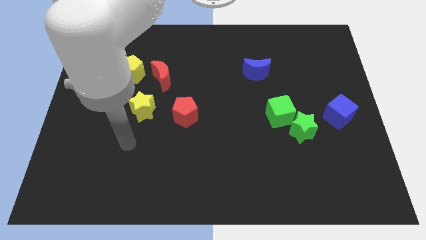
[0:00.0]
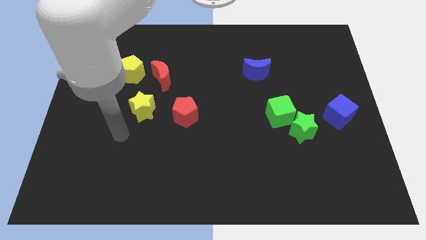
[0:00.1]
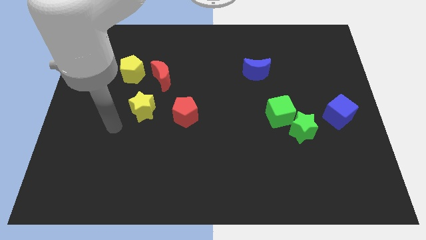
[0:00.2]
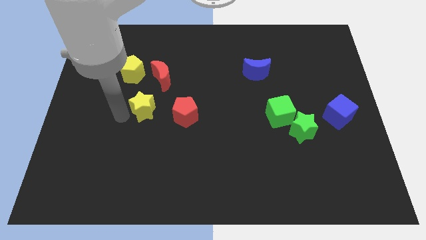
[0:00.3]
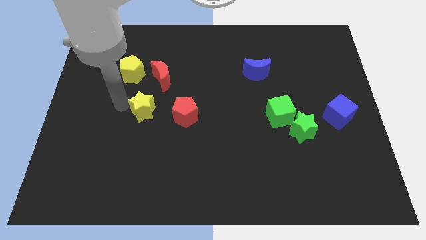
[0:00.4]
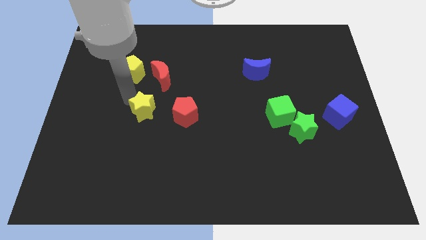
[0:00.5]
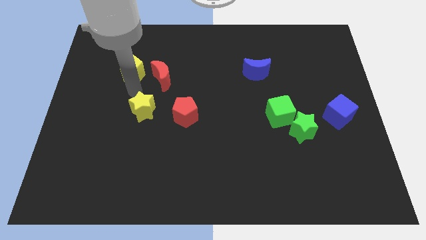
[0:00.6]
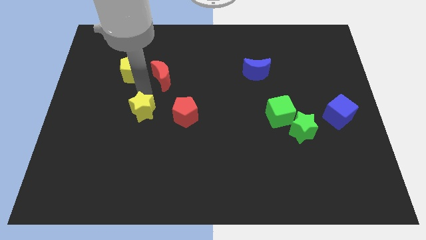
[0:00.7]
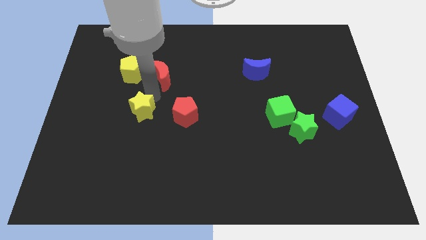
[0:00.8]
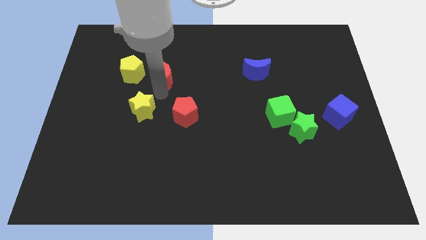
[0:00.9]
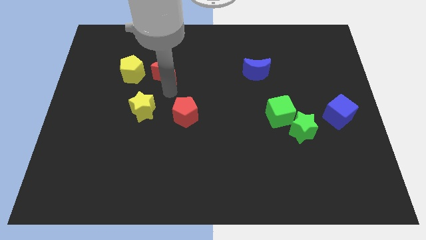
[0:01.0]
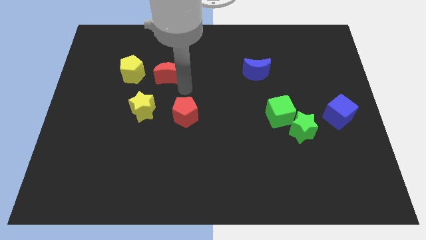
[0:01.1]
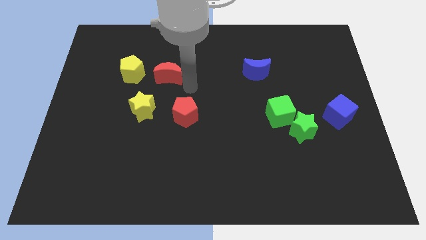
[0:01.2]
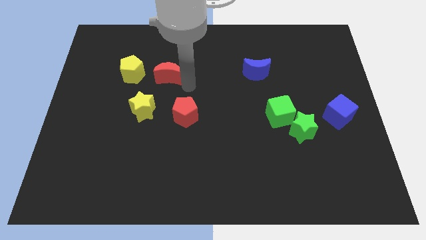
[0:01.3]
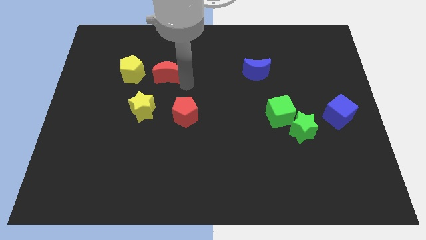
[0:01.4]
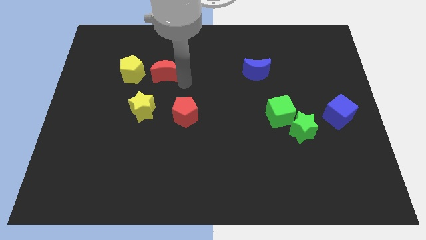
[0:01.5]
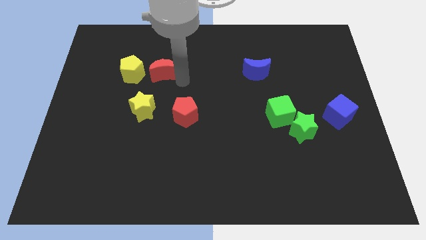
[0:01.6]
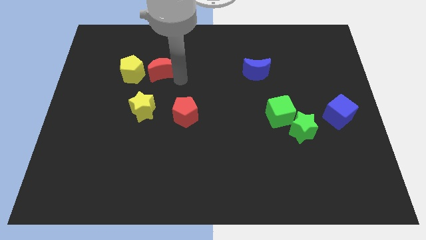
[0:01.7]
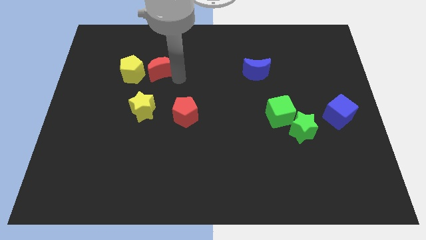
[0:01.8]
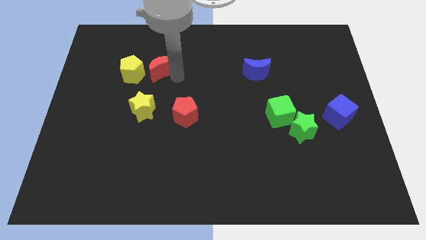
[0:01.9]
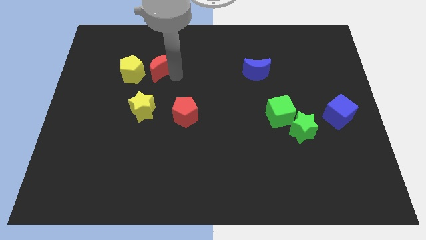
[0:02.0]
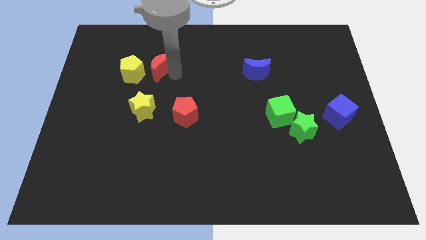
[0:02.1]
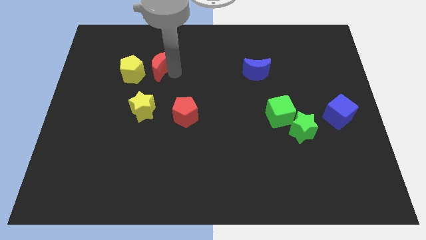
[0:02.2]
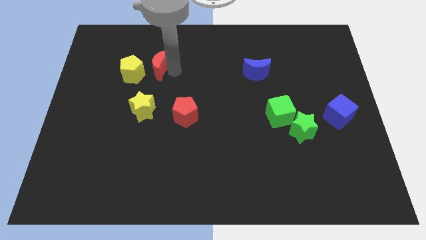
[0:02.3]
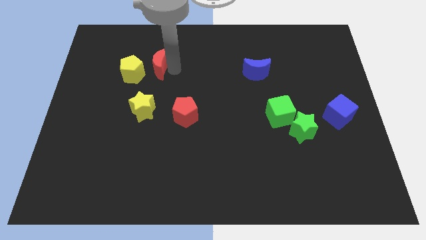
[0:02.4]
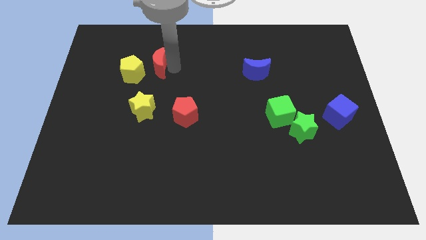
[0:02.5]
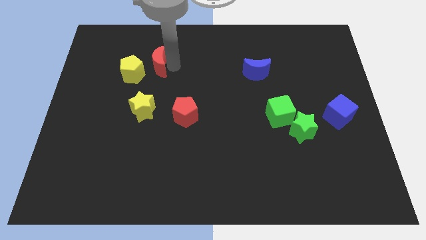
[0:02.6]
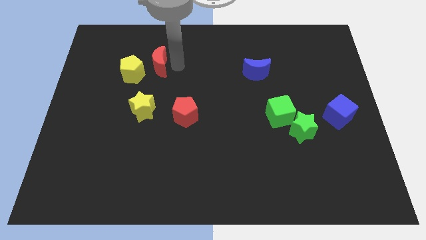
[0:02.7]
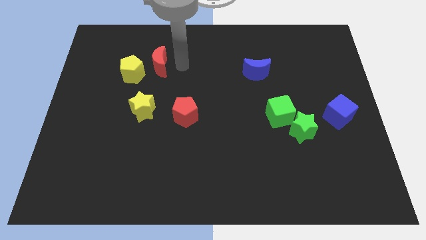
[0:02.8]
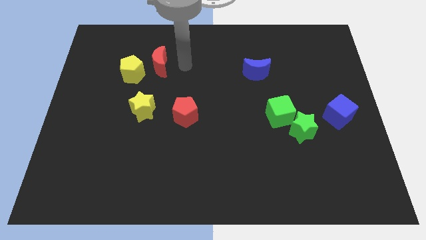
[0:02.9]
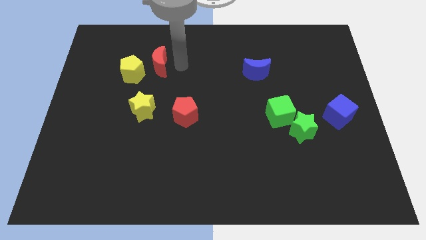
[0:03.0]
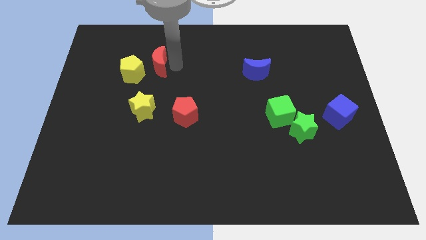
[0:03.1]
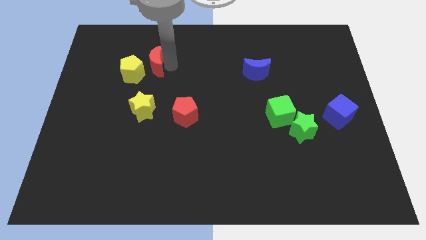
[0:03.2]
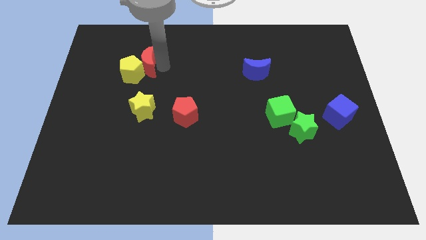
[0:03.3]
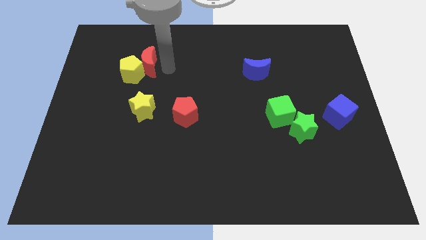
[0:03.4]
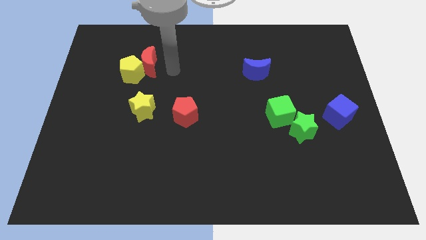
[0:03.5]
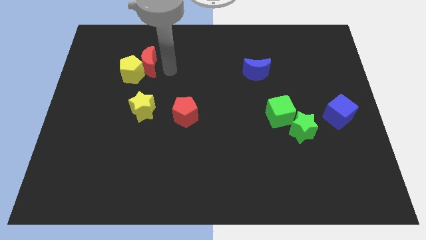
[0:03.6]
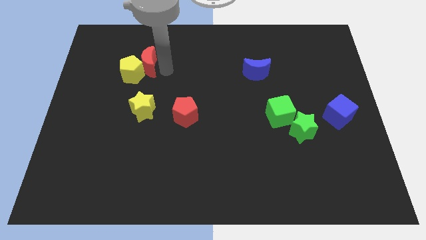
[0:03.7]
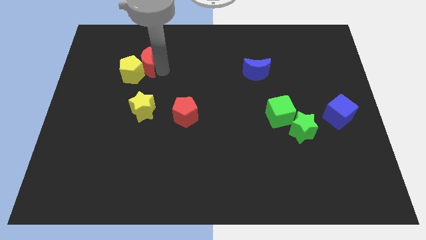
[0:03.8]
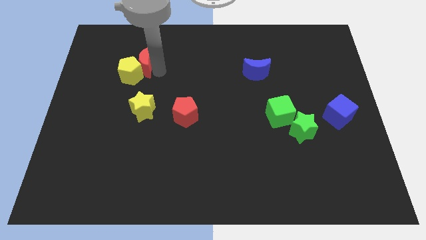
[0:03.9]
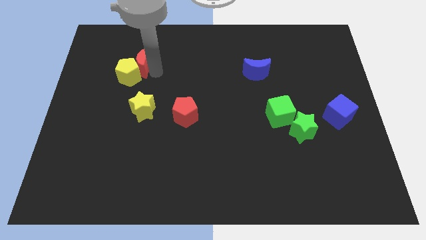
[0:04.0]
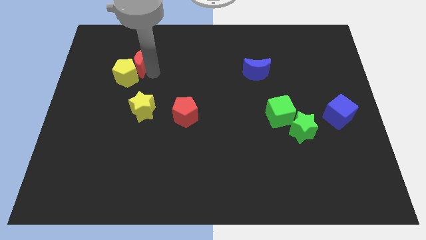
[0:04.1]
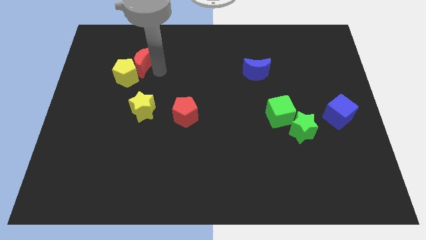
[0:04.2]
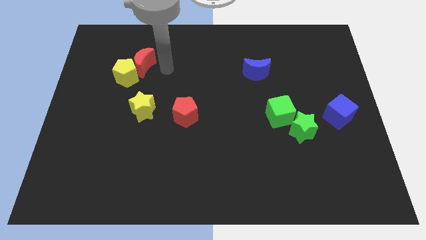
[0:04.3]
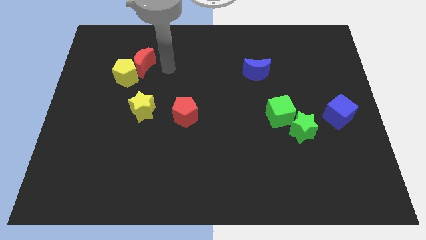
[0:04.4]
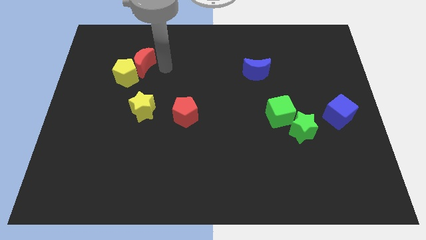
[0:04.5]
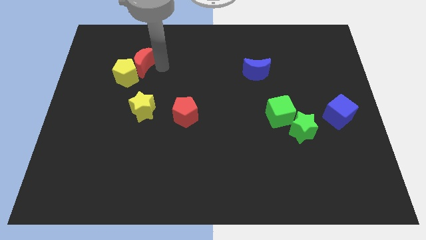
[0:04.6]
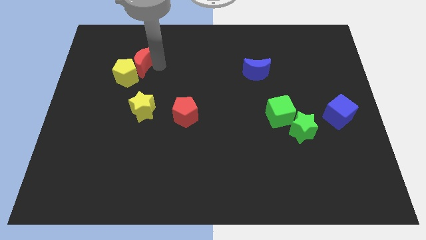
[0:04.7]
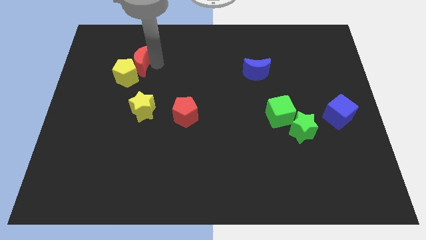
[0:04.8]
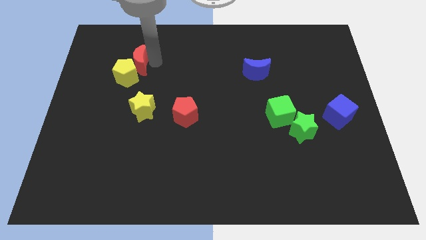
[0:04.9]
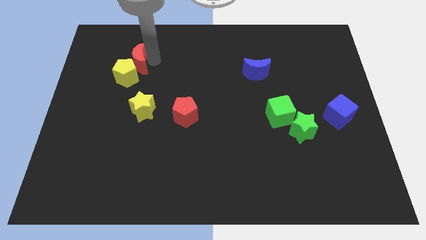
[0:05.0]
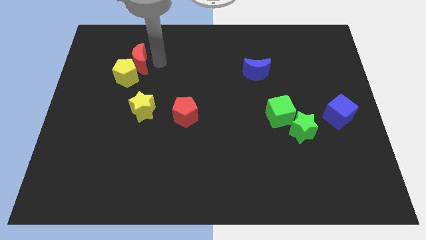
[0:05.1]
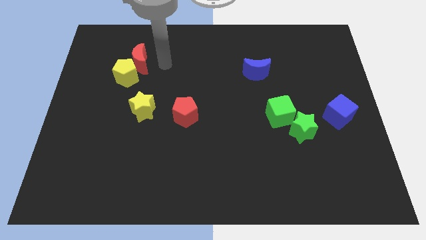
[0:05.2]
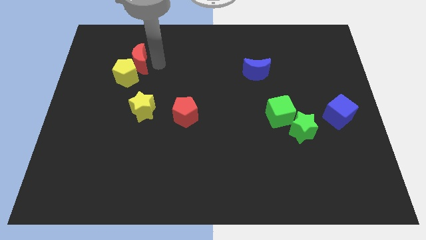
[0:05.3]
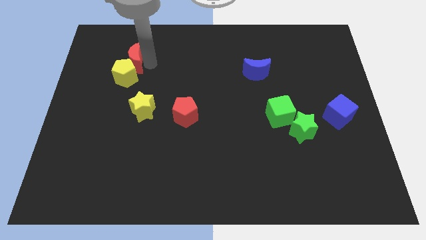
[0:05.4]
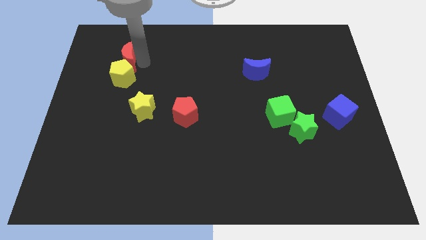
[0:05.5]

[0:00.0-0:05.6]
put the red moon to the top left side of the yellow pentagon

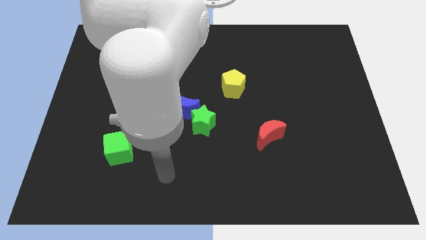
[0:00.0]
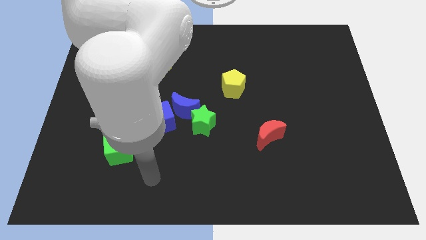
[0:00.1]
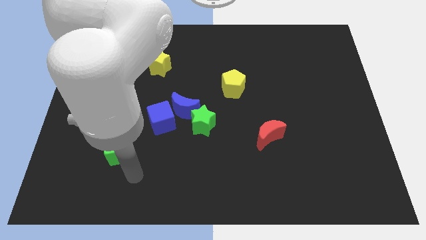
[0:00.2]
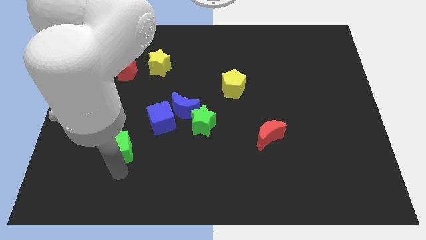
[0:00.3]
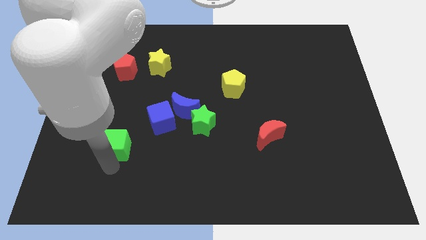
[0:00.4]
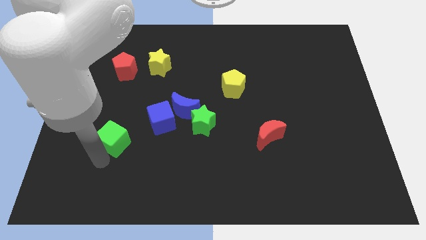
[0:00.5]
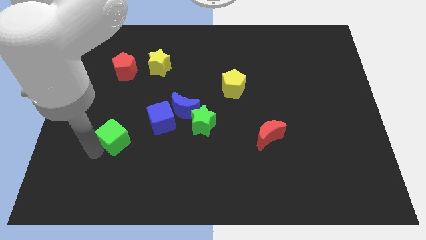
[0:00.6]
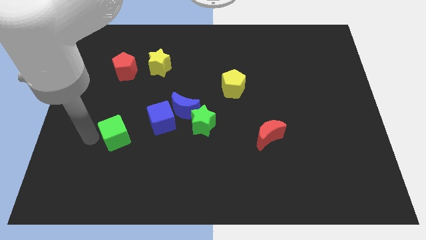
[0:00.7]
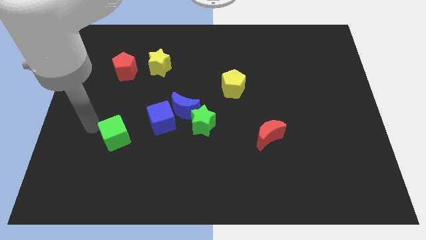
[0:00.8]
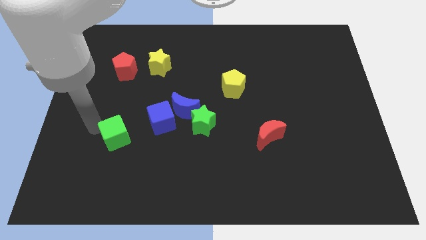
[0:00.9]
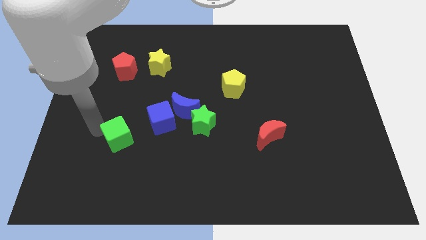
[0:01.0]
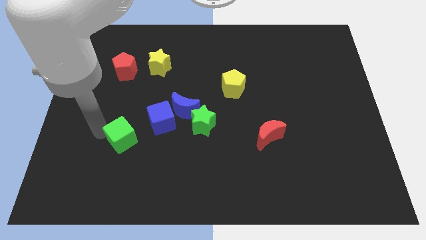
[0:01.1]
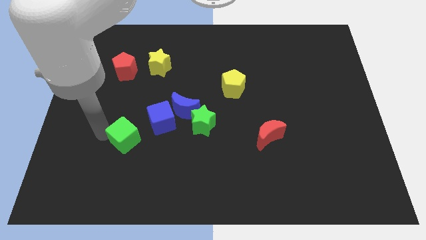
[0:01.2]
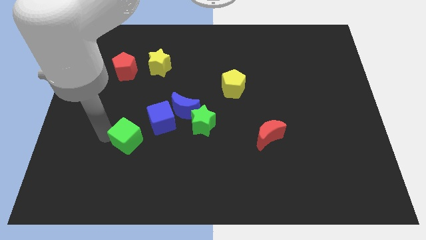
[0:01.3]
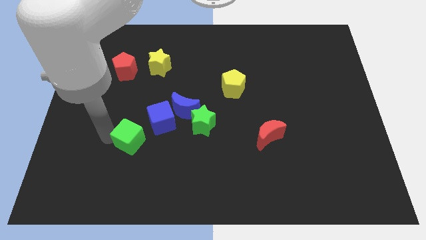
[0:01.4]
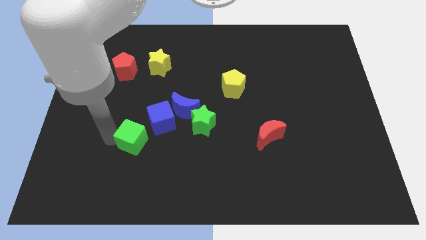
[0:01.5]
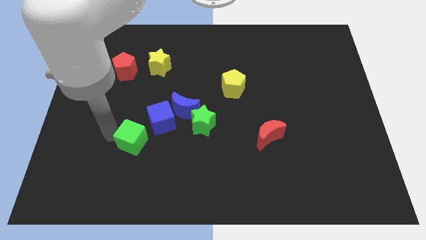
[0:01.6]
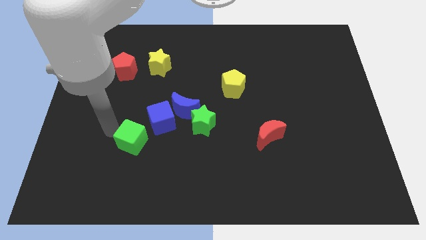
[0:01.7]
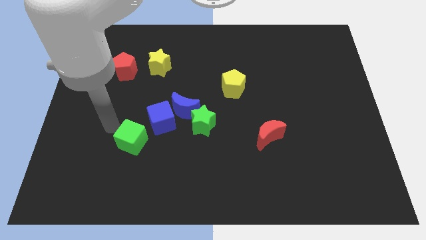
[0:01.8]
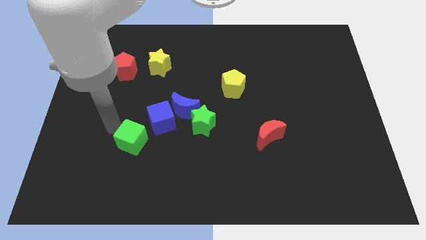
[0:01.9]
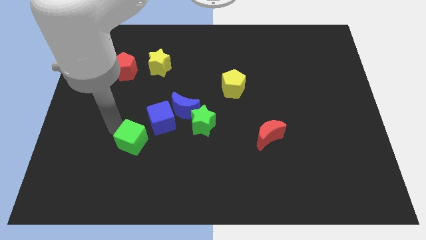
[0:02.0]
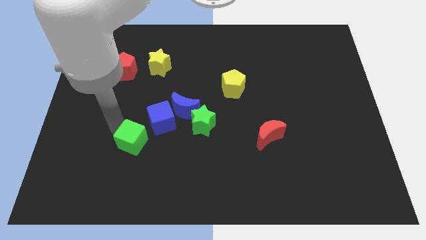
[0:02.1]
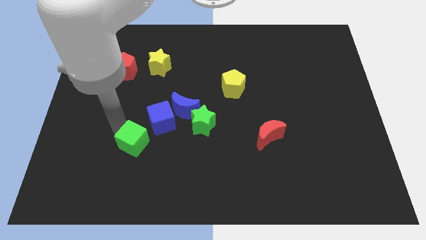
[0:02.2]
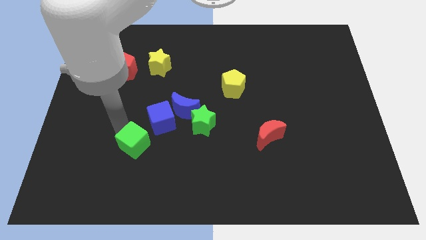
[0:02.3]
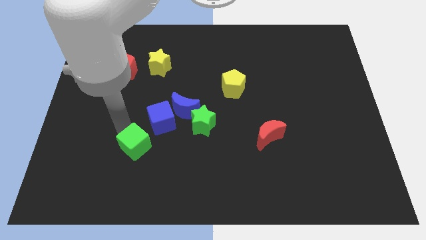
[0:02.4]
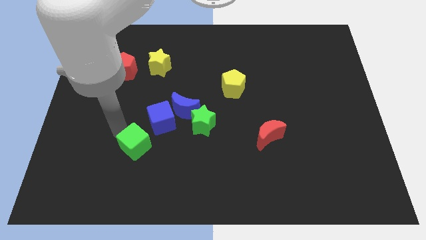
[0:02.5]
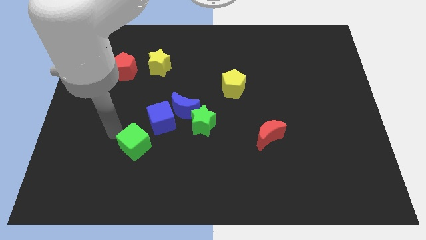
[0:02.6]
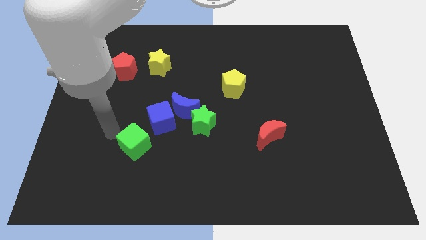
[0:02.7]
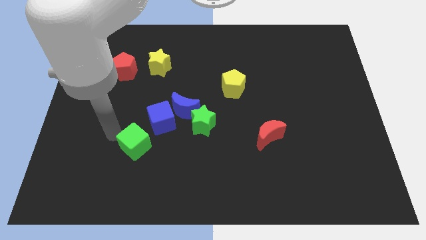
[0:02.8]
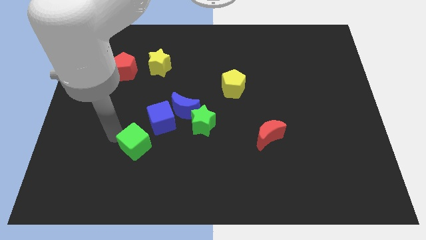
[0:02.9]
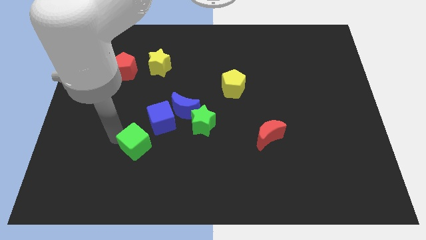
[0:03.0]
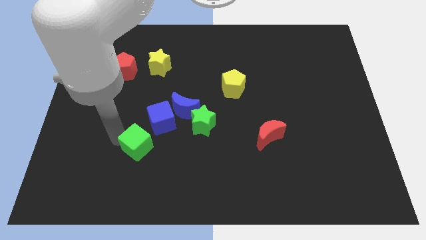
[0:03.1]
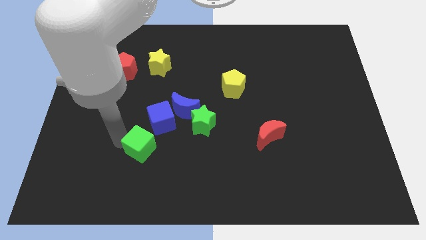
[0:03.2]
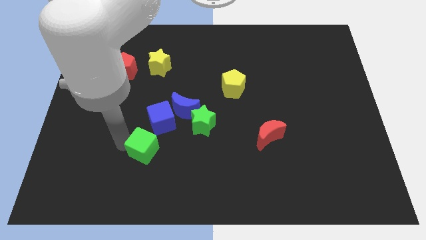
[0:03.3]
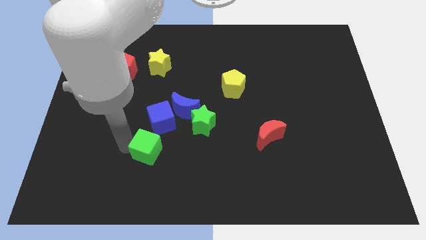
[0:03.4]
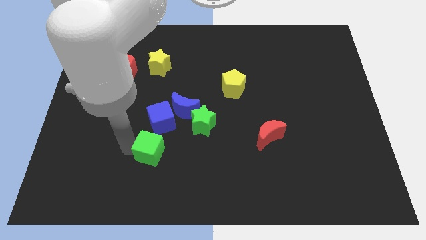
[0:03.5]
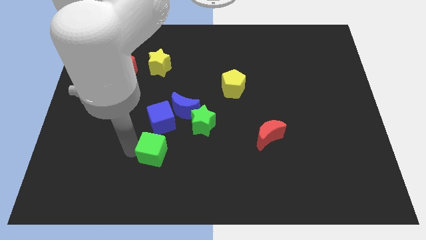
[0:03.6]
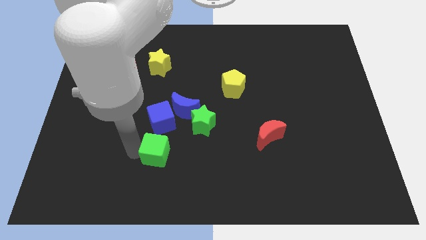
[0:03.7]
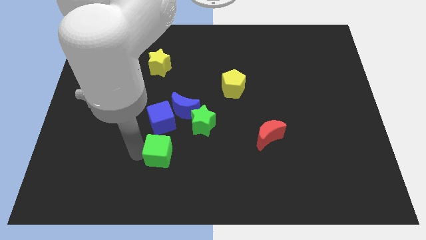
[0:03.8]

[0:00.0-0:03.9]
slide the green cube below the blue moon
